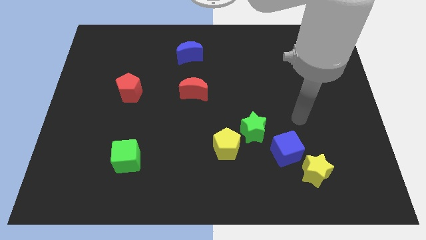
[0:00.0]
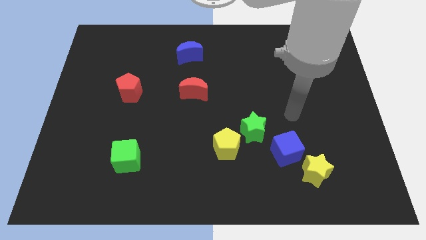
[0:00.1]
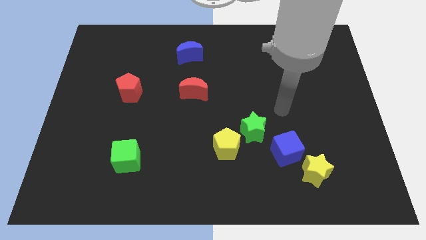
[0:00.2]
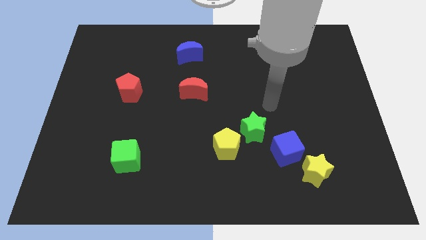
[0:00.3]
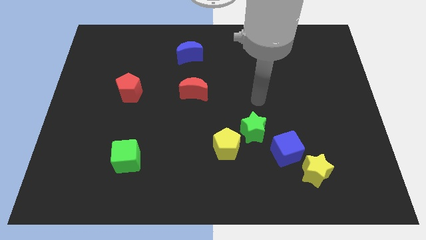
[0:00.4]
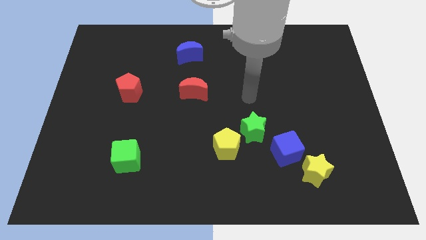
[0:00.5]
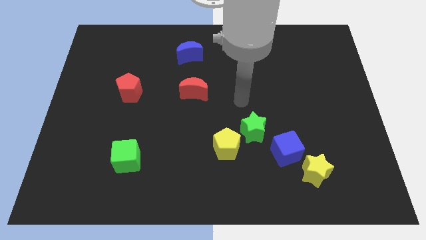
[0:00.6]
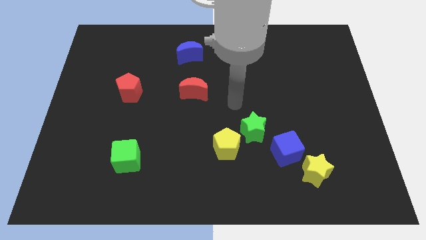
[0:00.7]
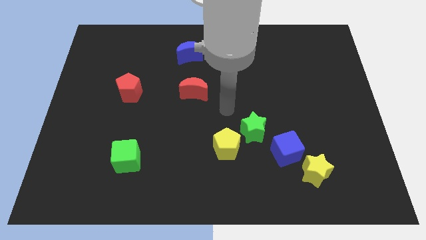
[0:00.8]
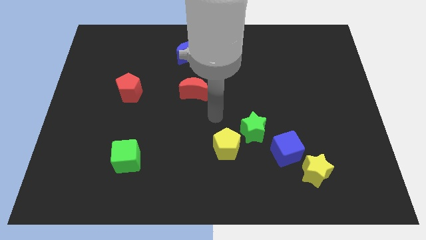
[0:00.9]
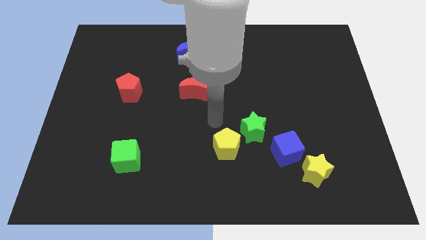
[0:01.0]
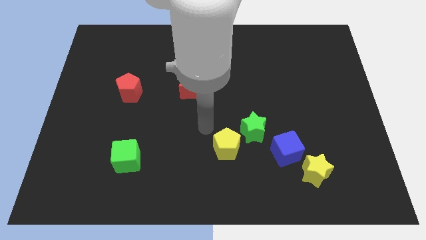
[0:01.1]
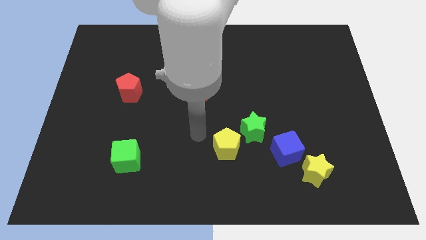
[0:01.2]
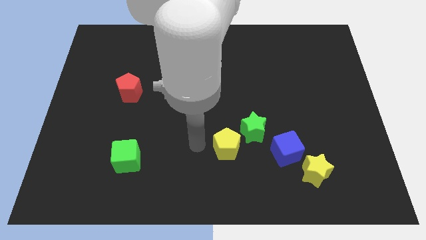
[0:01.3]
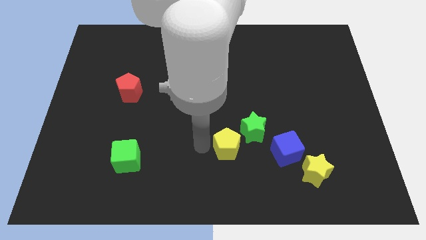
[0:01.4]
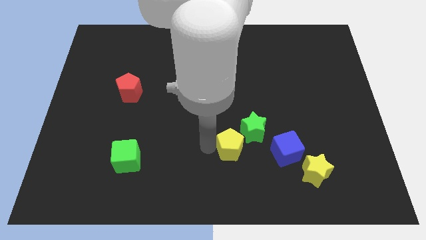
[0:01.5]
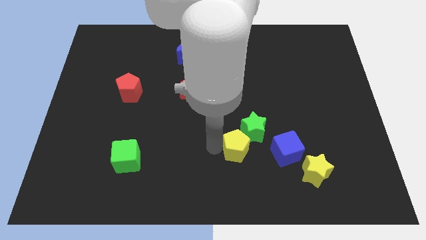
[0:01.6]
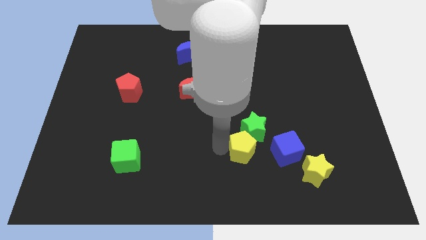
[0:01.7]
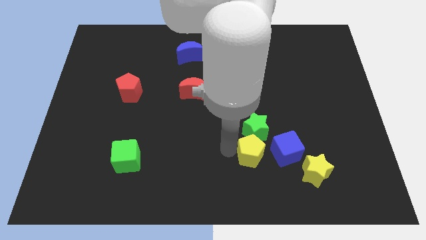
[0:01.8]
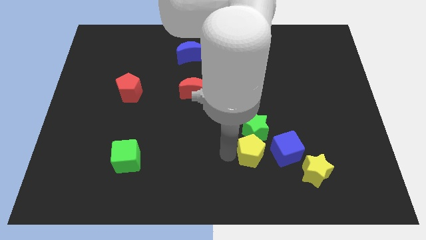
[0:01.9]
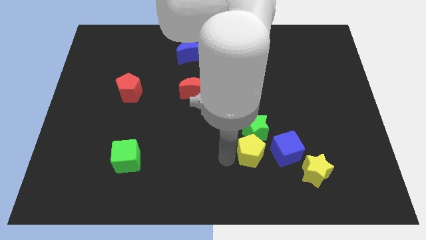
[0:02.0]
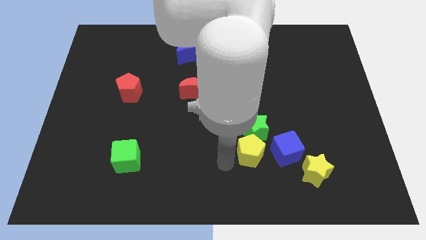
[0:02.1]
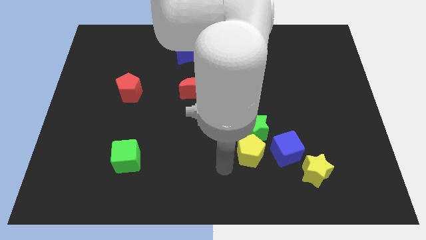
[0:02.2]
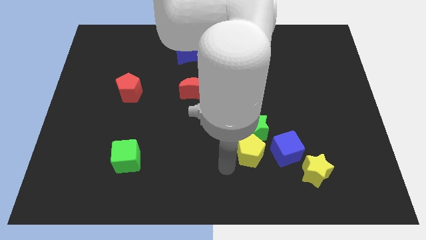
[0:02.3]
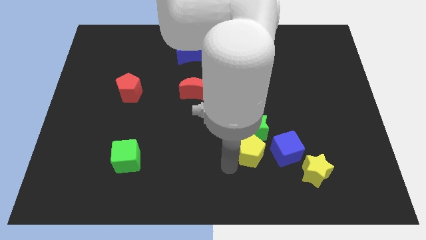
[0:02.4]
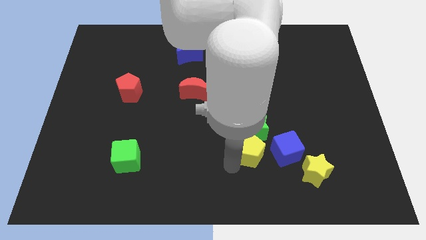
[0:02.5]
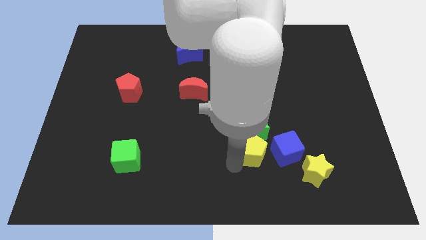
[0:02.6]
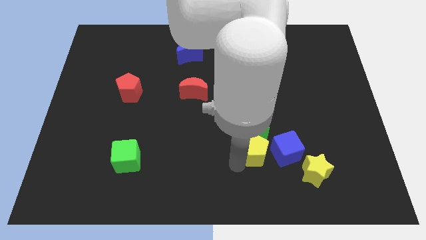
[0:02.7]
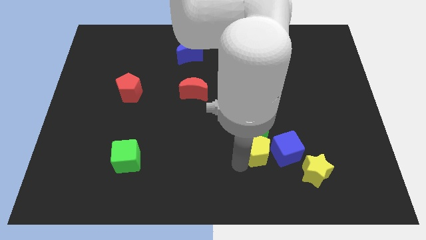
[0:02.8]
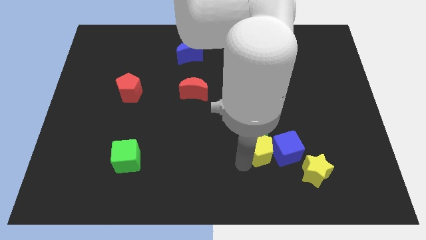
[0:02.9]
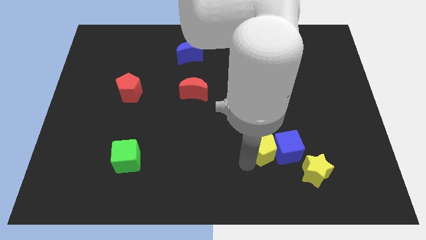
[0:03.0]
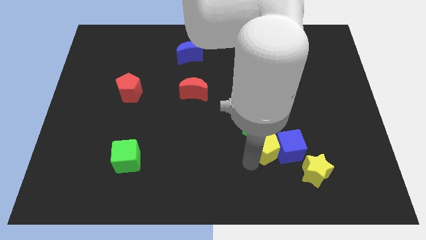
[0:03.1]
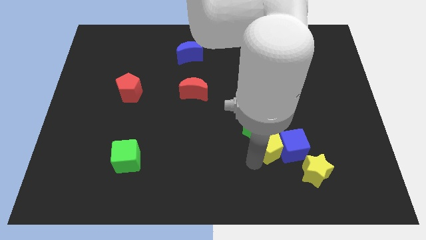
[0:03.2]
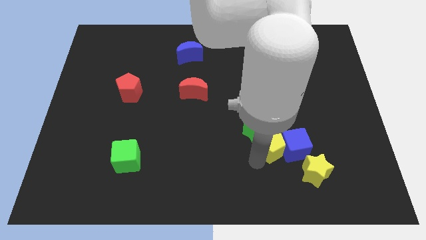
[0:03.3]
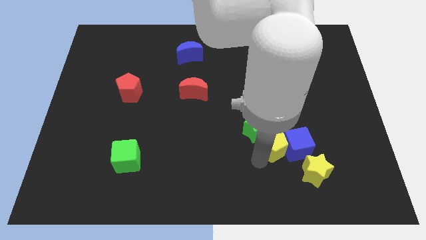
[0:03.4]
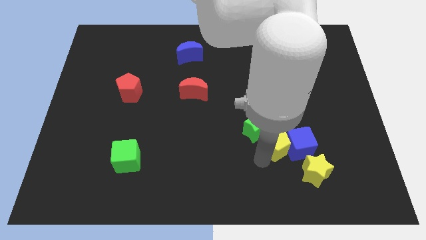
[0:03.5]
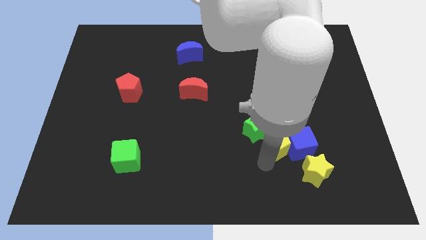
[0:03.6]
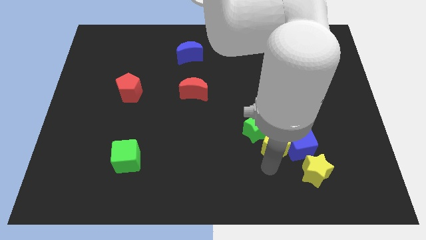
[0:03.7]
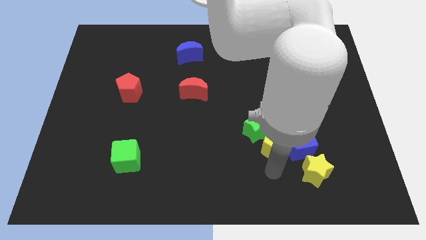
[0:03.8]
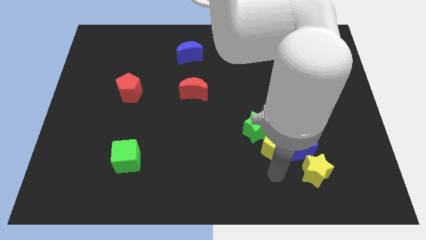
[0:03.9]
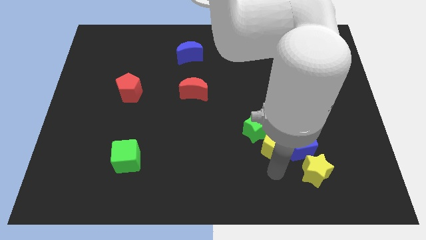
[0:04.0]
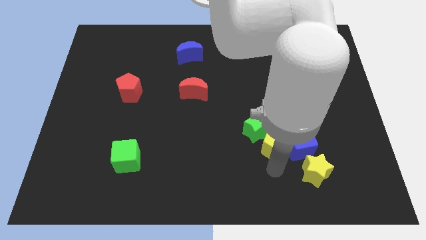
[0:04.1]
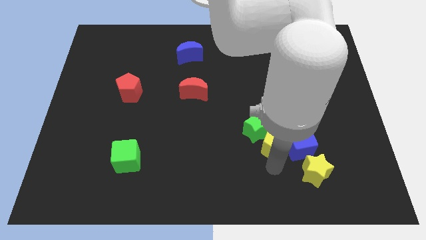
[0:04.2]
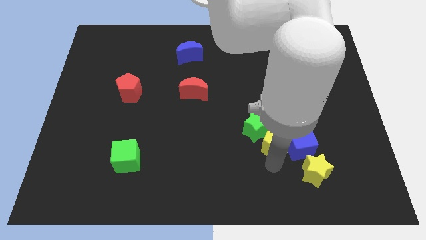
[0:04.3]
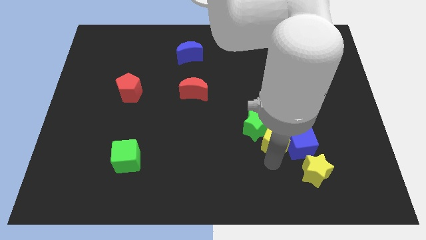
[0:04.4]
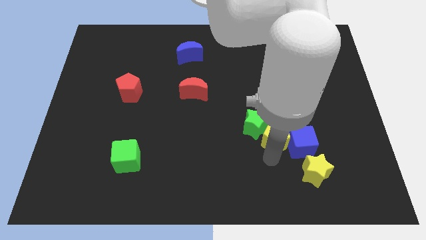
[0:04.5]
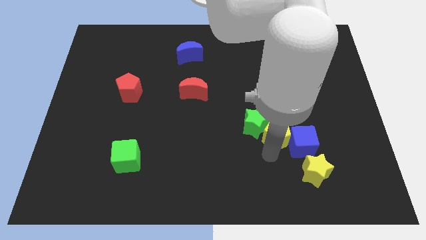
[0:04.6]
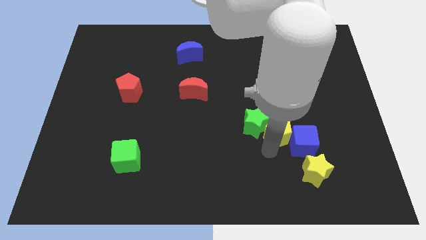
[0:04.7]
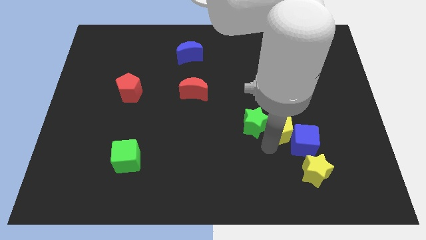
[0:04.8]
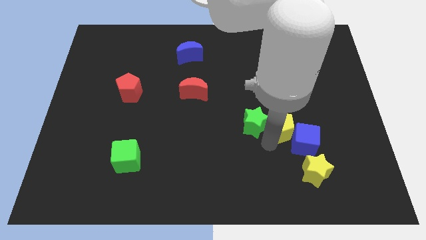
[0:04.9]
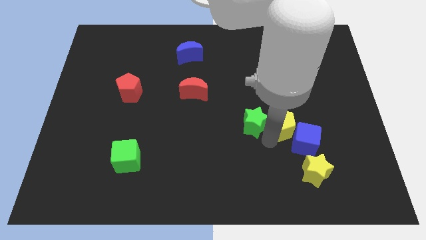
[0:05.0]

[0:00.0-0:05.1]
slide the yellow pentagon diagonally up and to the right of the green star

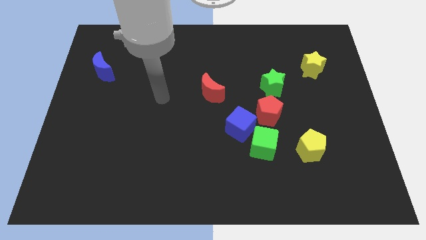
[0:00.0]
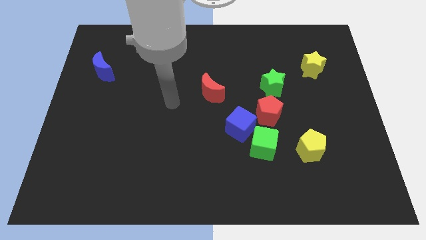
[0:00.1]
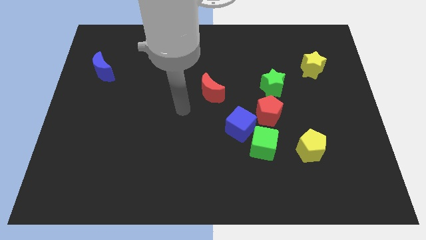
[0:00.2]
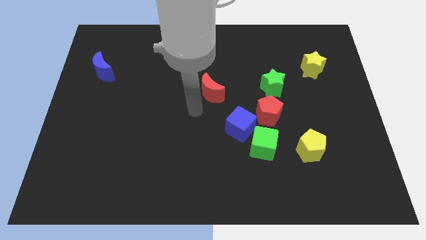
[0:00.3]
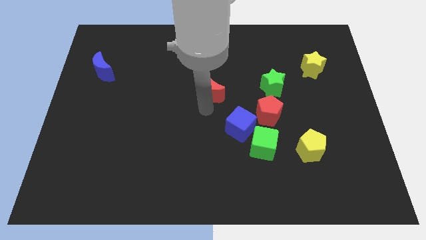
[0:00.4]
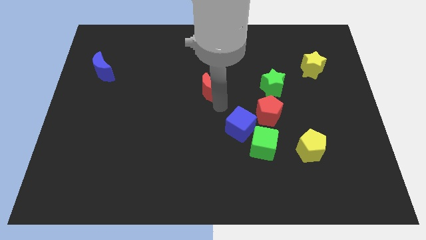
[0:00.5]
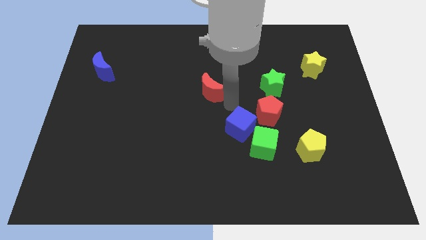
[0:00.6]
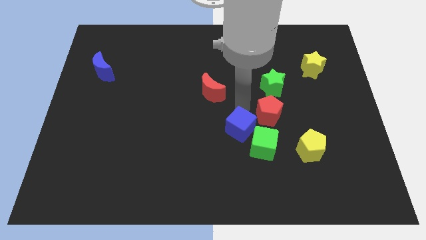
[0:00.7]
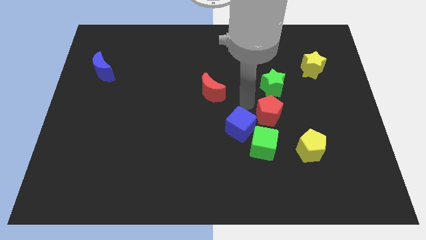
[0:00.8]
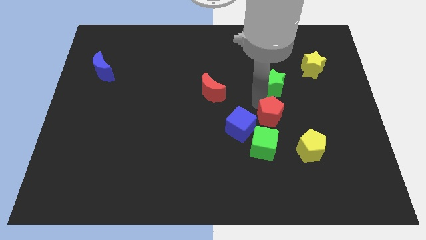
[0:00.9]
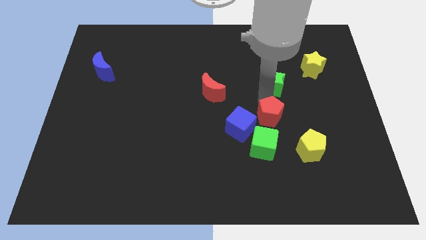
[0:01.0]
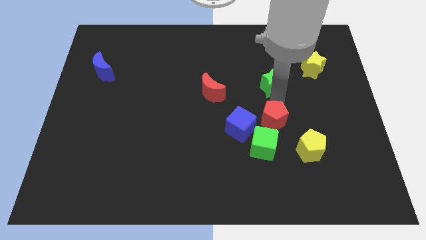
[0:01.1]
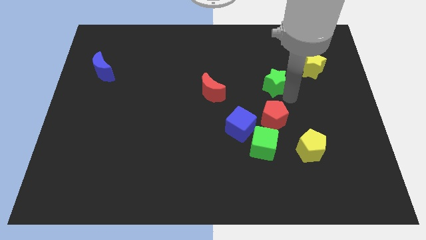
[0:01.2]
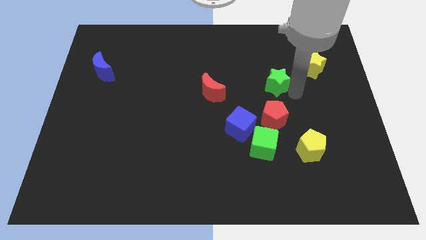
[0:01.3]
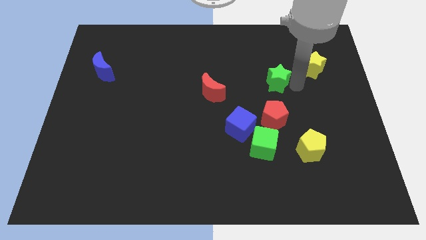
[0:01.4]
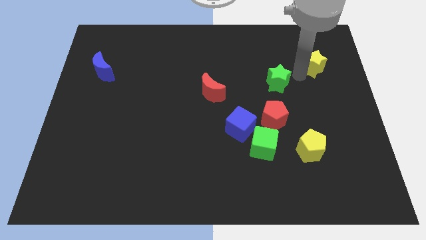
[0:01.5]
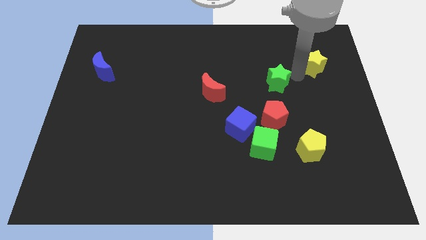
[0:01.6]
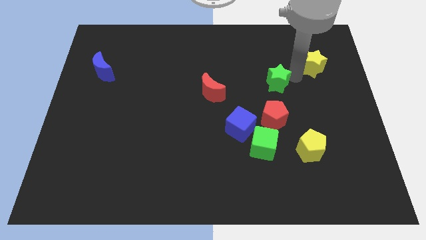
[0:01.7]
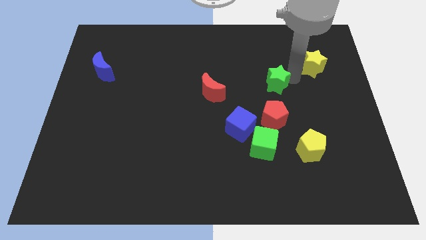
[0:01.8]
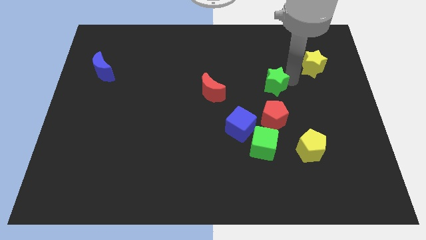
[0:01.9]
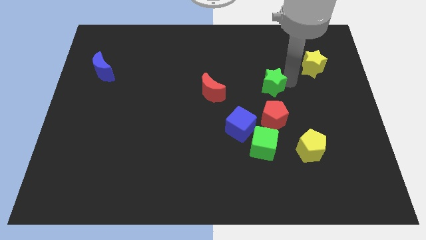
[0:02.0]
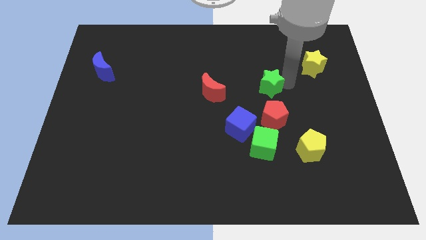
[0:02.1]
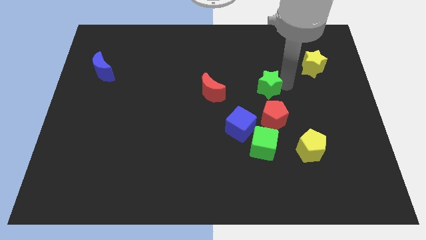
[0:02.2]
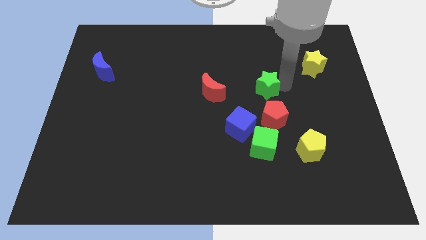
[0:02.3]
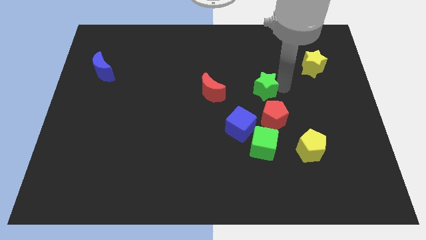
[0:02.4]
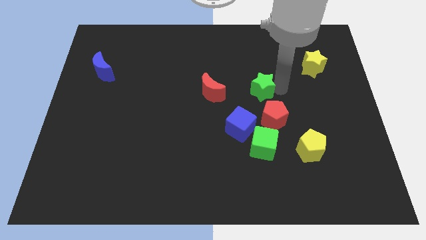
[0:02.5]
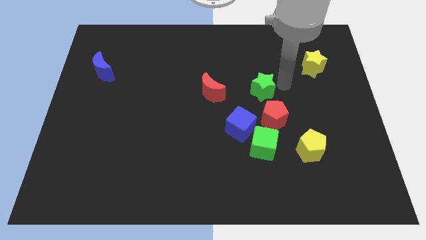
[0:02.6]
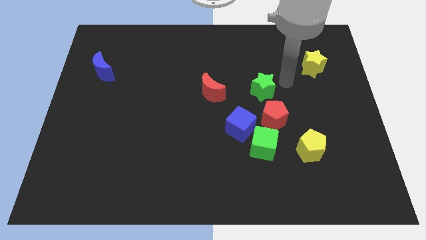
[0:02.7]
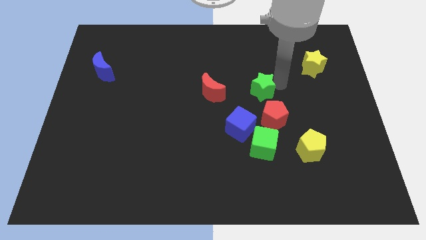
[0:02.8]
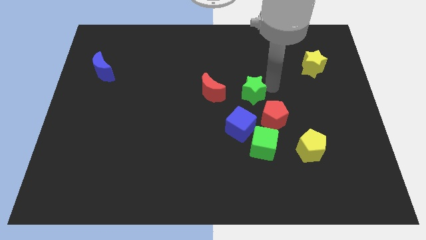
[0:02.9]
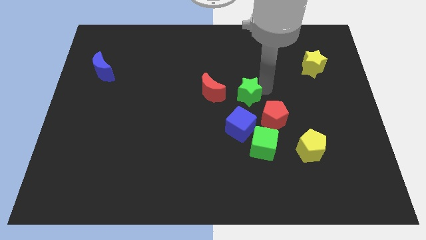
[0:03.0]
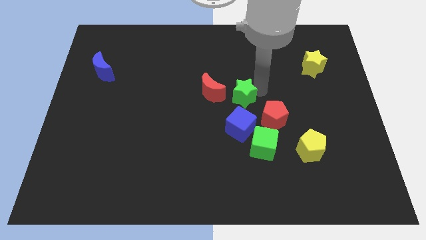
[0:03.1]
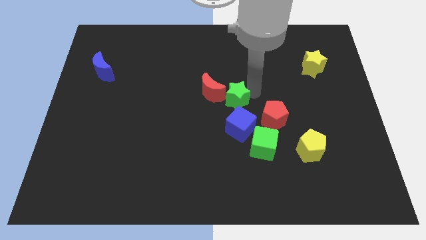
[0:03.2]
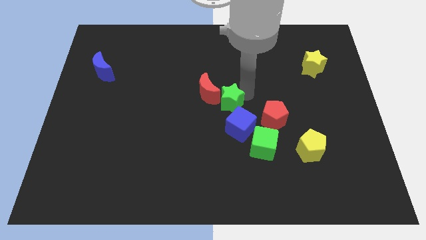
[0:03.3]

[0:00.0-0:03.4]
move the green star diagonally up and to the left of the blue cube
